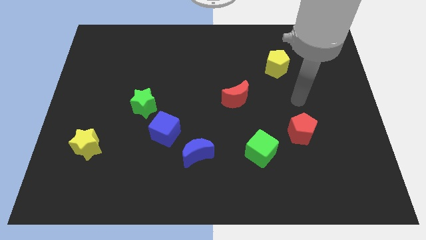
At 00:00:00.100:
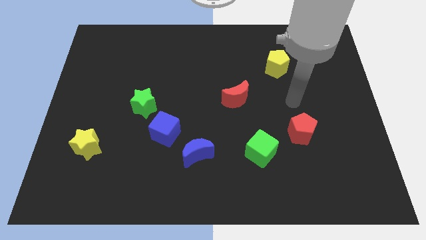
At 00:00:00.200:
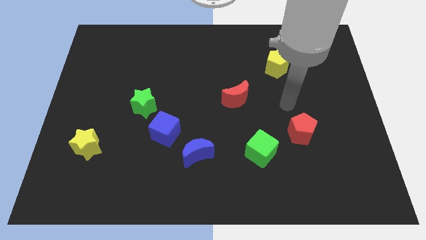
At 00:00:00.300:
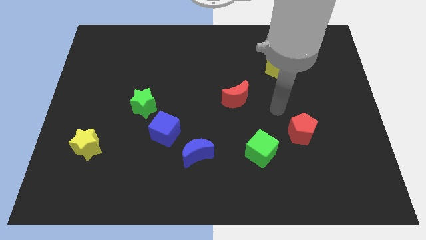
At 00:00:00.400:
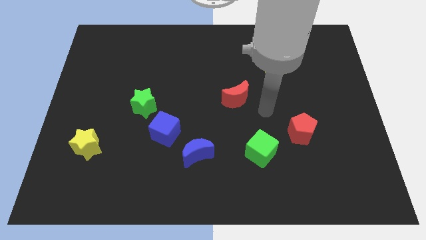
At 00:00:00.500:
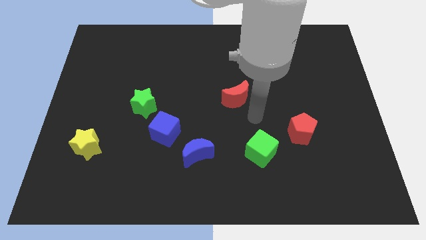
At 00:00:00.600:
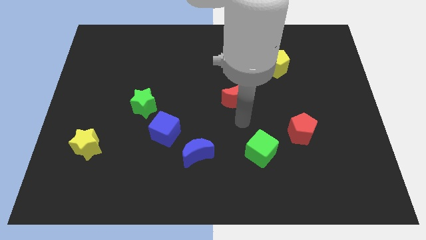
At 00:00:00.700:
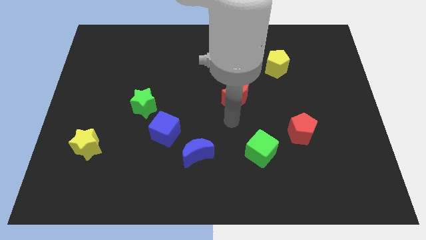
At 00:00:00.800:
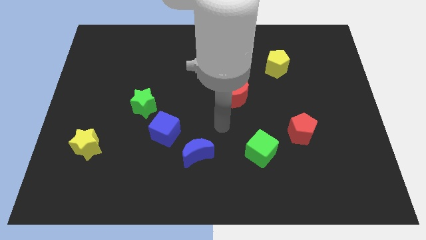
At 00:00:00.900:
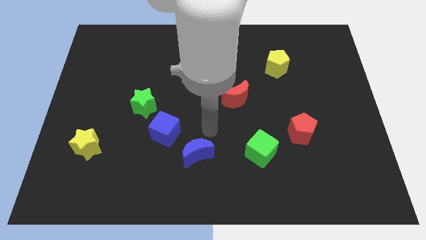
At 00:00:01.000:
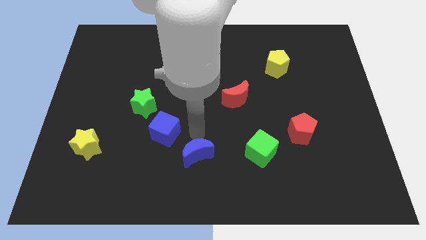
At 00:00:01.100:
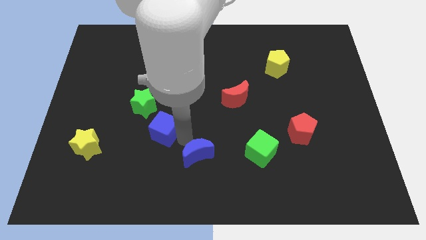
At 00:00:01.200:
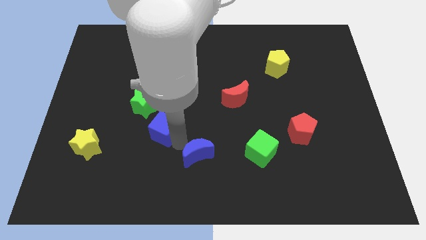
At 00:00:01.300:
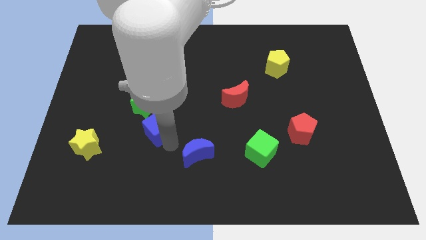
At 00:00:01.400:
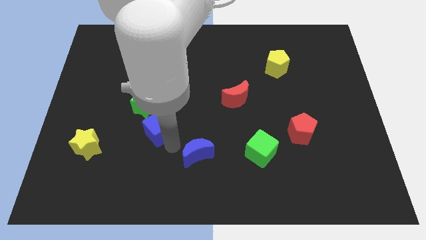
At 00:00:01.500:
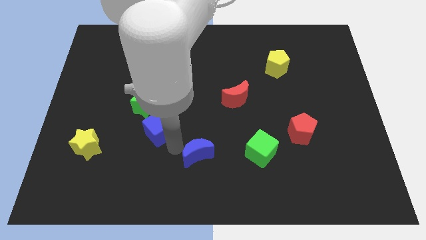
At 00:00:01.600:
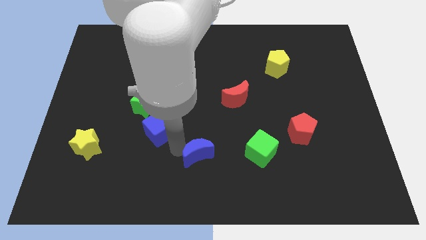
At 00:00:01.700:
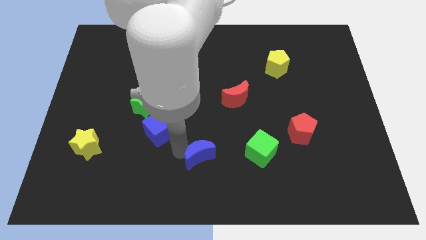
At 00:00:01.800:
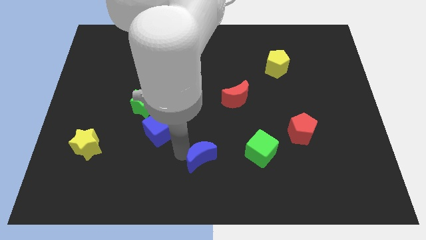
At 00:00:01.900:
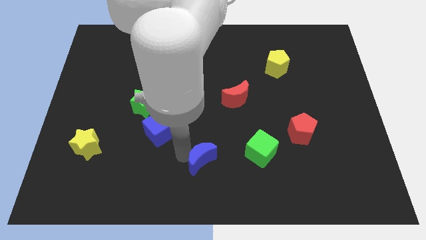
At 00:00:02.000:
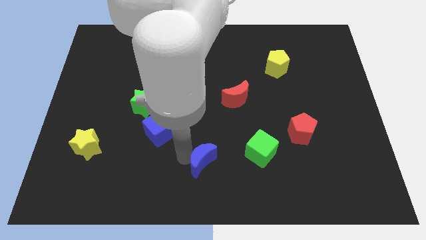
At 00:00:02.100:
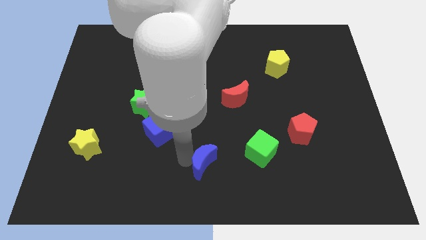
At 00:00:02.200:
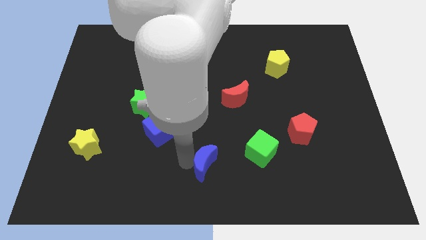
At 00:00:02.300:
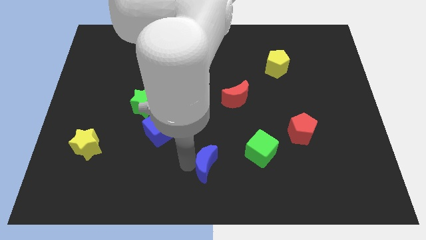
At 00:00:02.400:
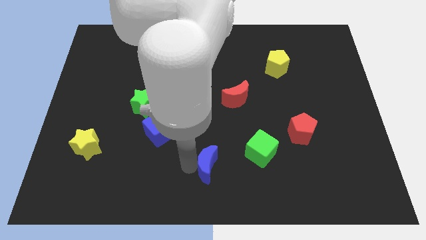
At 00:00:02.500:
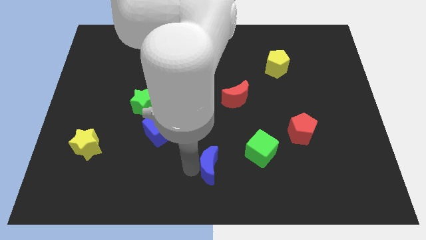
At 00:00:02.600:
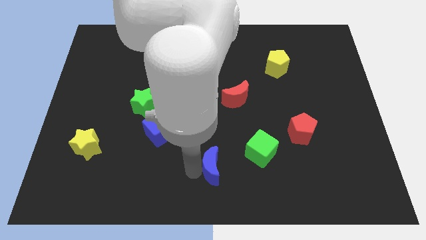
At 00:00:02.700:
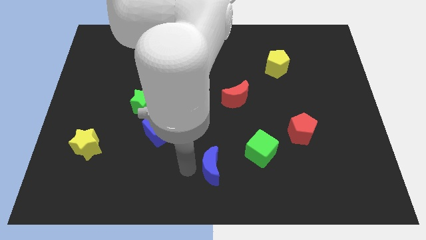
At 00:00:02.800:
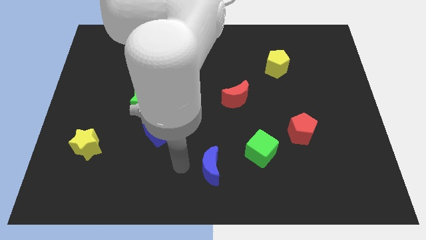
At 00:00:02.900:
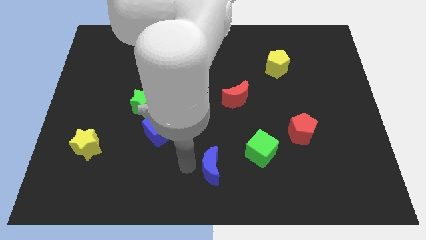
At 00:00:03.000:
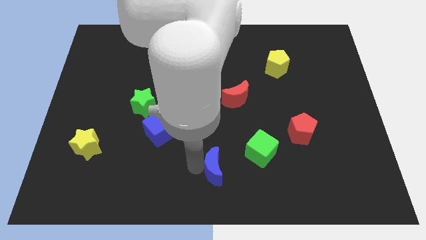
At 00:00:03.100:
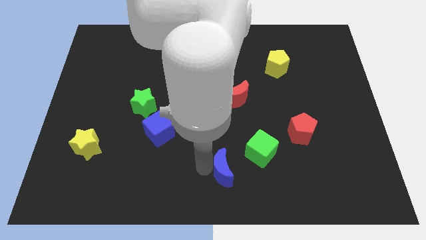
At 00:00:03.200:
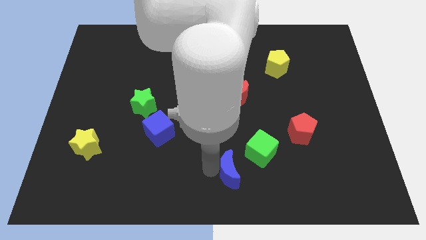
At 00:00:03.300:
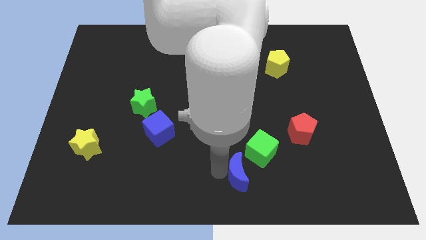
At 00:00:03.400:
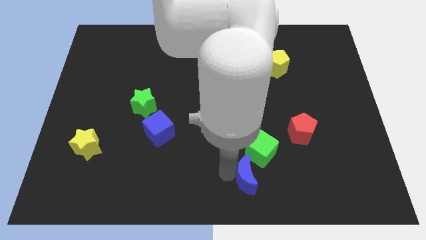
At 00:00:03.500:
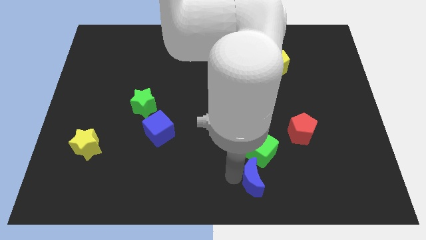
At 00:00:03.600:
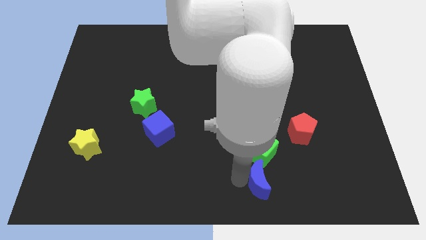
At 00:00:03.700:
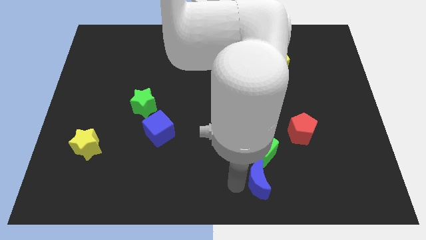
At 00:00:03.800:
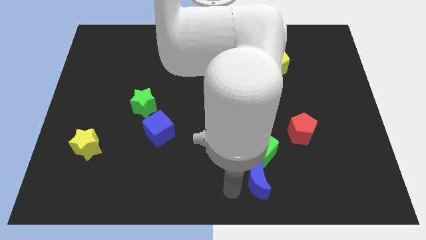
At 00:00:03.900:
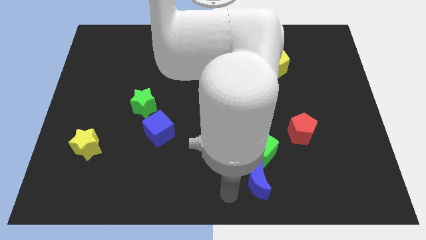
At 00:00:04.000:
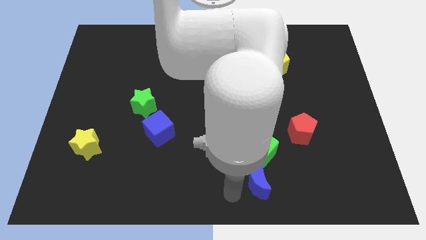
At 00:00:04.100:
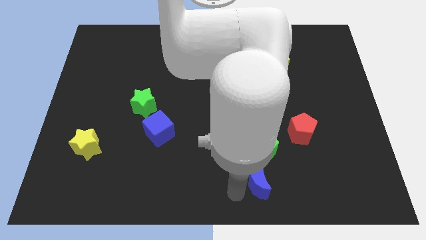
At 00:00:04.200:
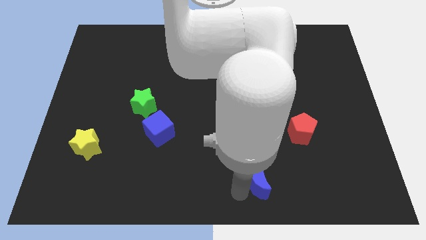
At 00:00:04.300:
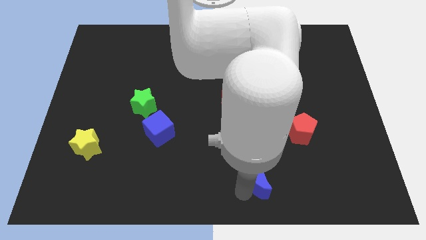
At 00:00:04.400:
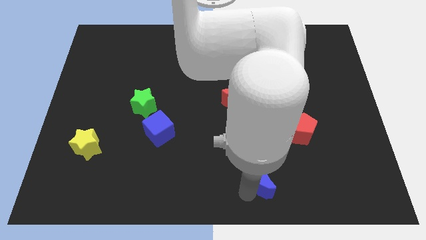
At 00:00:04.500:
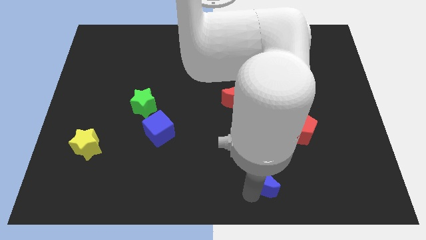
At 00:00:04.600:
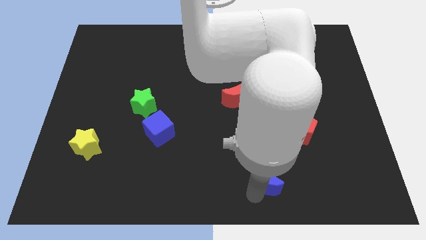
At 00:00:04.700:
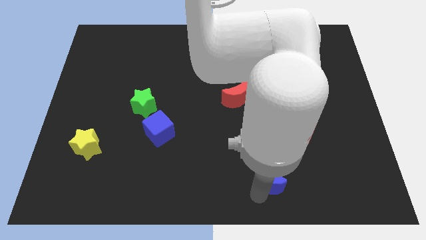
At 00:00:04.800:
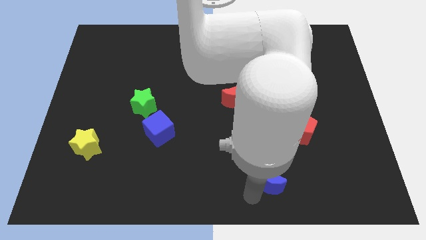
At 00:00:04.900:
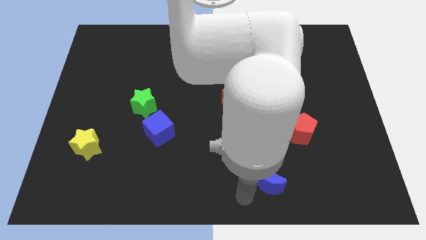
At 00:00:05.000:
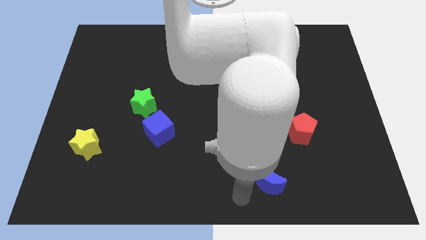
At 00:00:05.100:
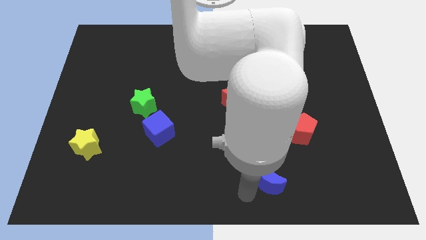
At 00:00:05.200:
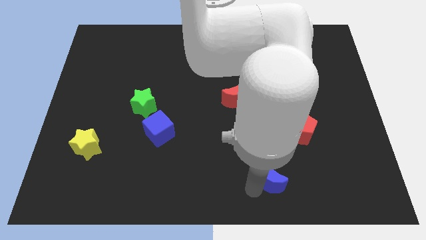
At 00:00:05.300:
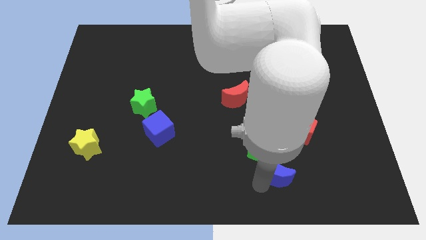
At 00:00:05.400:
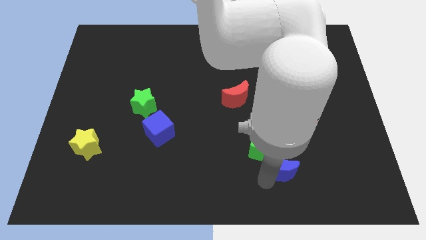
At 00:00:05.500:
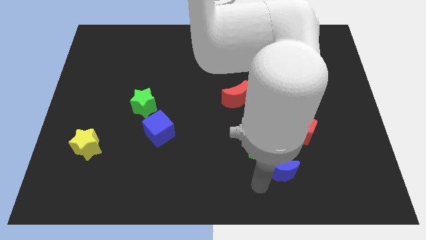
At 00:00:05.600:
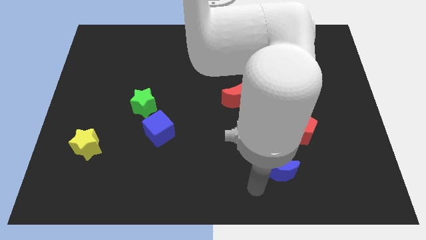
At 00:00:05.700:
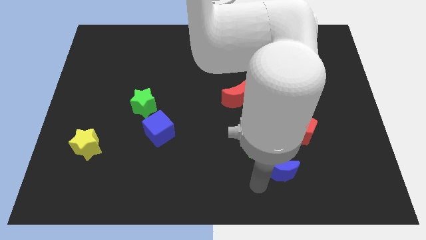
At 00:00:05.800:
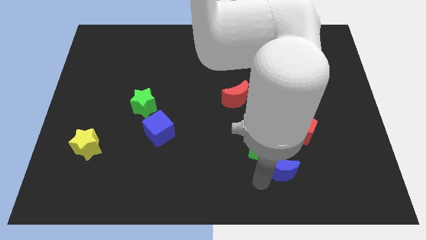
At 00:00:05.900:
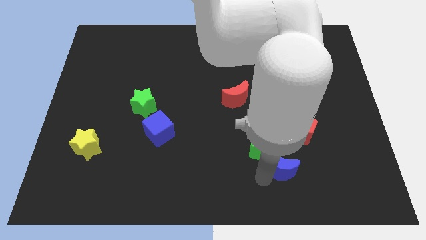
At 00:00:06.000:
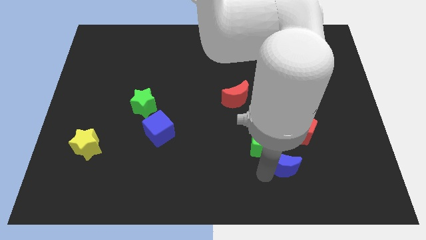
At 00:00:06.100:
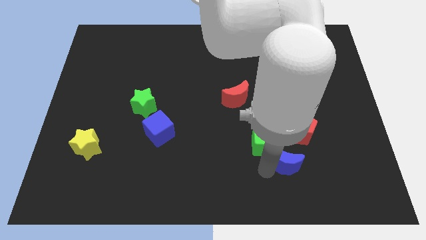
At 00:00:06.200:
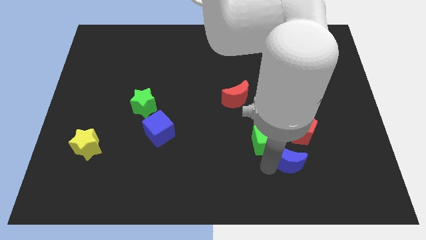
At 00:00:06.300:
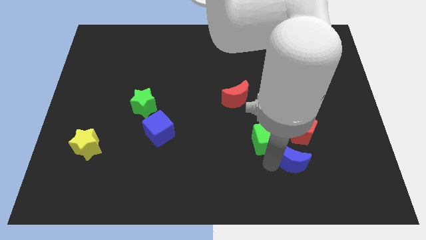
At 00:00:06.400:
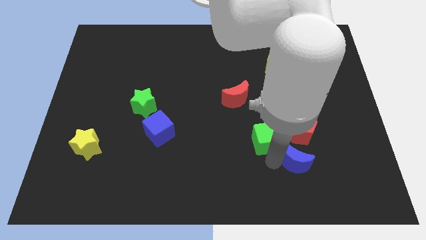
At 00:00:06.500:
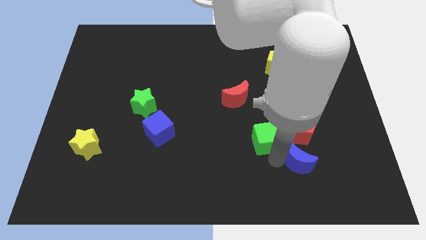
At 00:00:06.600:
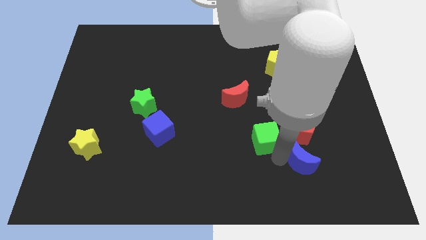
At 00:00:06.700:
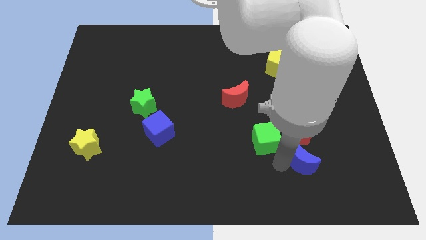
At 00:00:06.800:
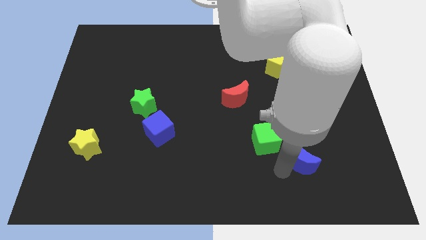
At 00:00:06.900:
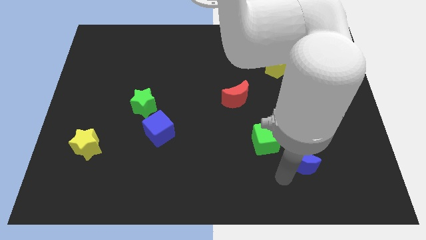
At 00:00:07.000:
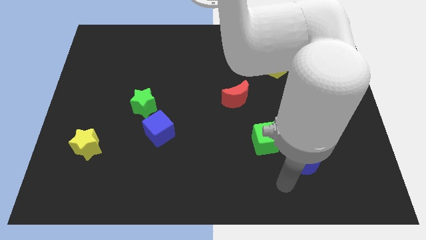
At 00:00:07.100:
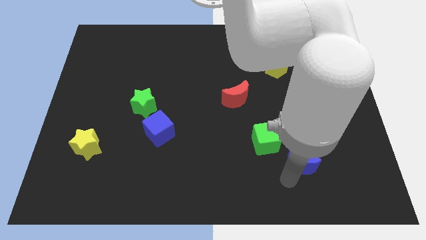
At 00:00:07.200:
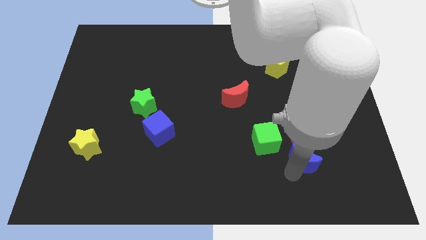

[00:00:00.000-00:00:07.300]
move the blue moon to the right of the green cube
